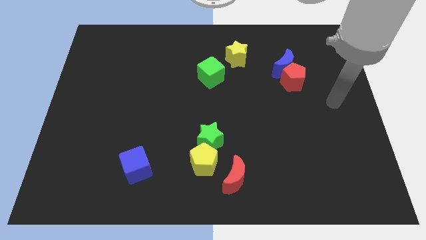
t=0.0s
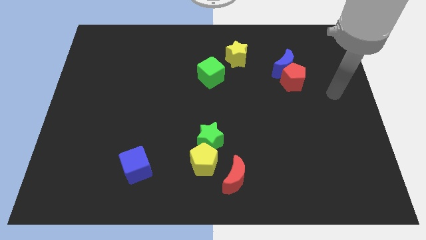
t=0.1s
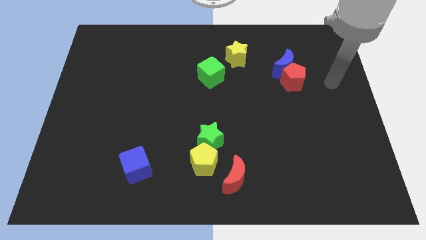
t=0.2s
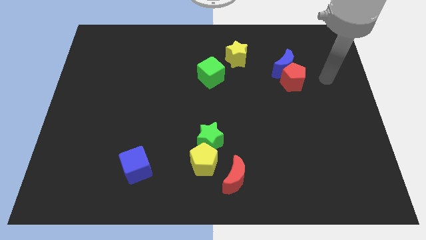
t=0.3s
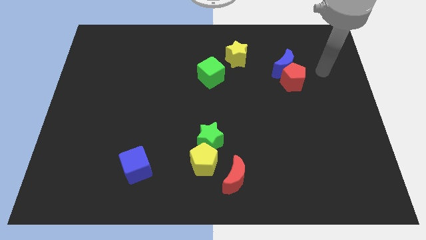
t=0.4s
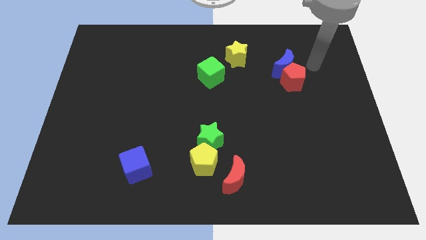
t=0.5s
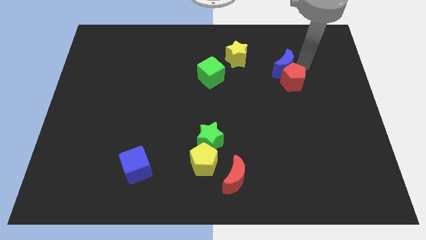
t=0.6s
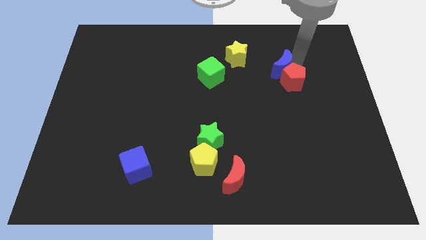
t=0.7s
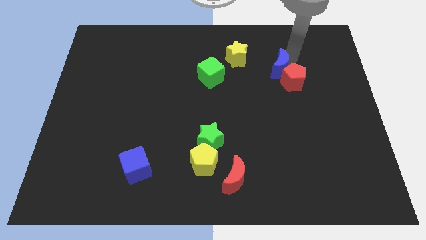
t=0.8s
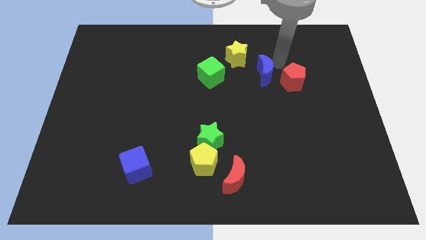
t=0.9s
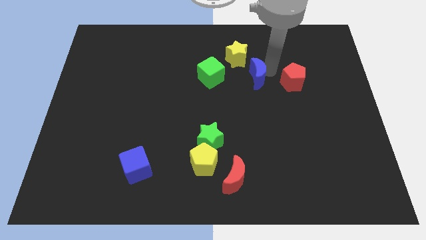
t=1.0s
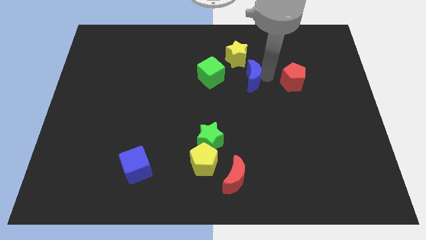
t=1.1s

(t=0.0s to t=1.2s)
pull the red pentagon apart from the blue moon

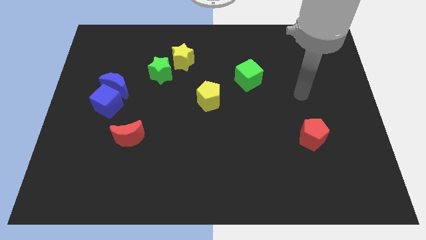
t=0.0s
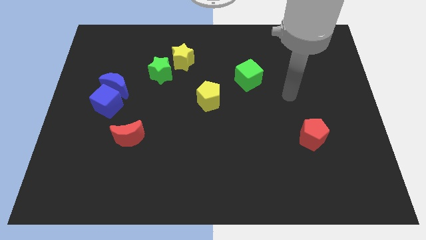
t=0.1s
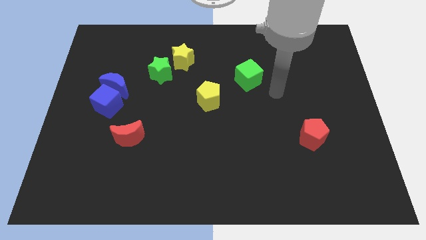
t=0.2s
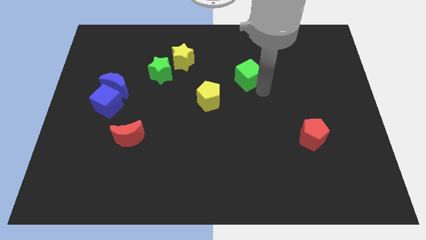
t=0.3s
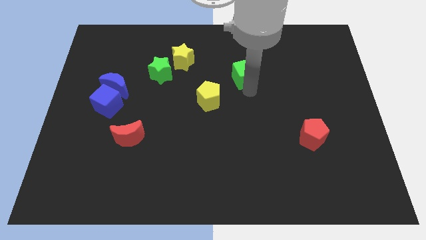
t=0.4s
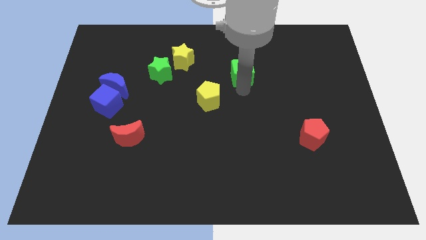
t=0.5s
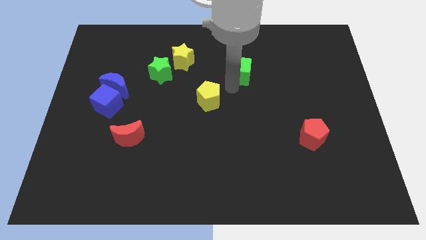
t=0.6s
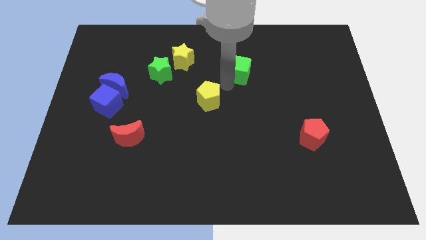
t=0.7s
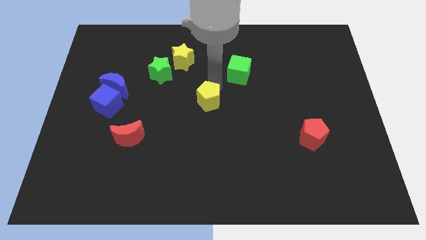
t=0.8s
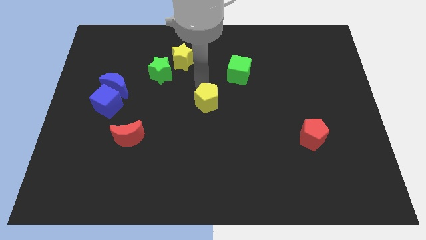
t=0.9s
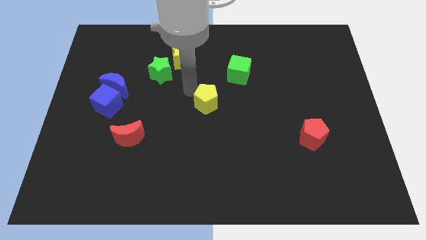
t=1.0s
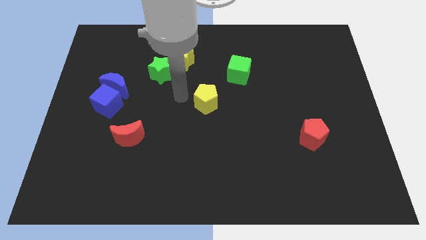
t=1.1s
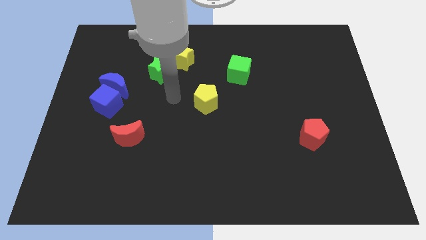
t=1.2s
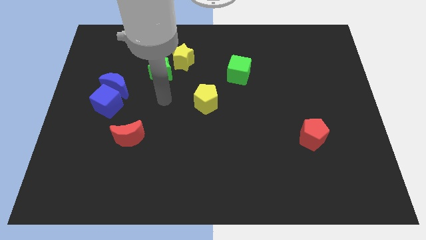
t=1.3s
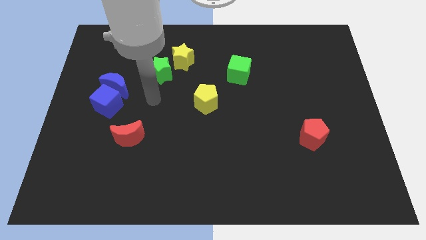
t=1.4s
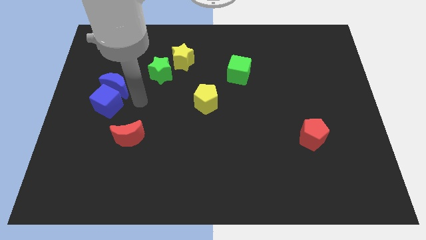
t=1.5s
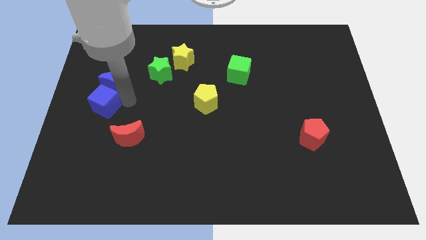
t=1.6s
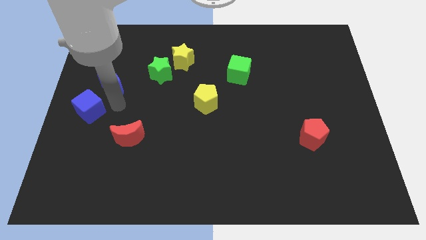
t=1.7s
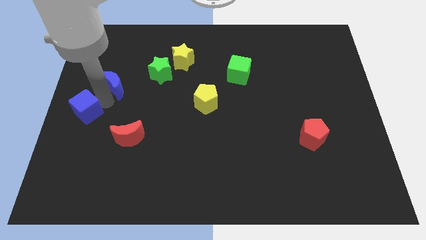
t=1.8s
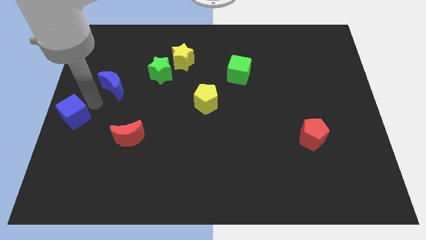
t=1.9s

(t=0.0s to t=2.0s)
separate the blue moon from the blue cube

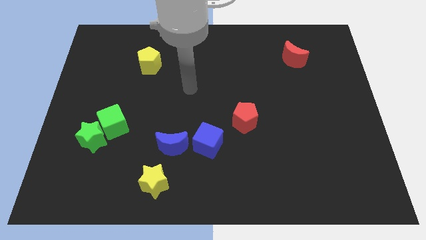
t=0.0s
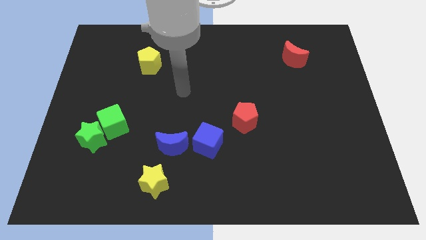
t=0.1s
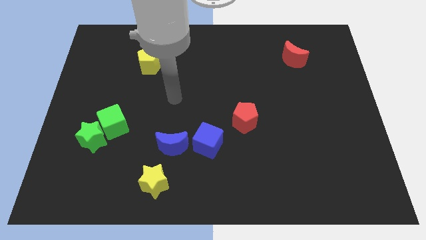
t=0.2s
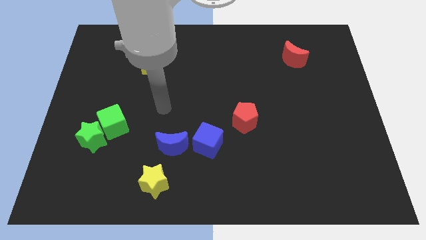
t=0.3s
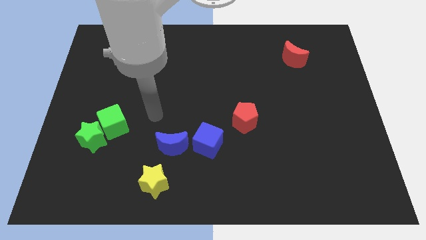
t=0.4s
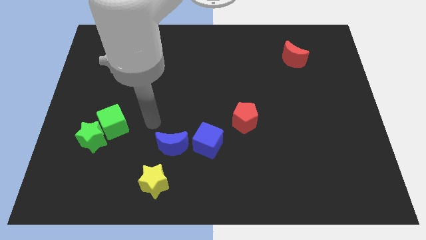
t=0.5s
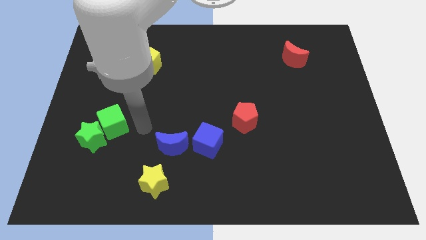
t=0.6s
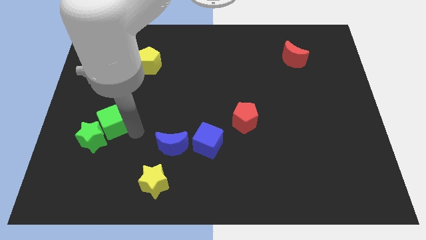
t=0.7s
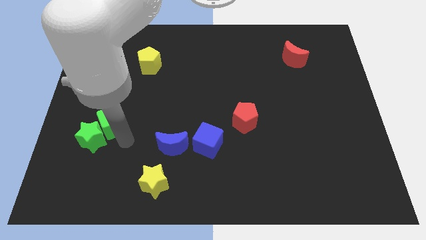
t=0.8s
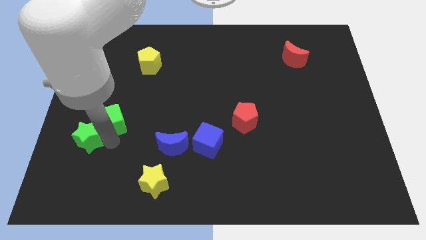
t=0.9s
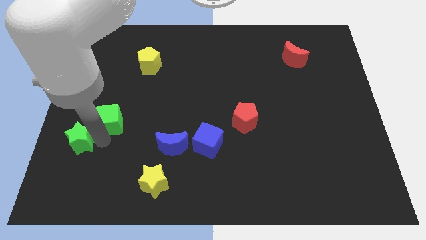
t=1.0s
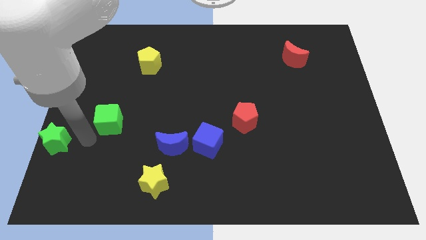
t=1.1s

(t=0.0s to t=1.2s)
pull the green cube apart from the green star

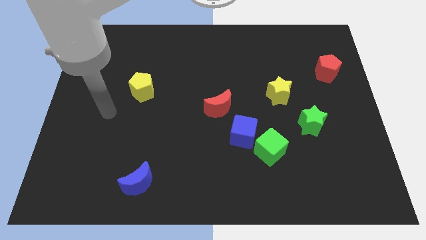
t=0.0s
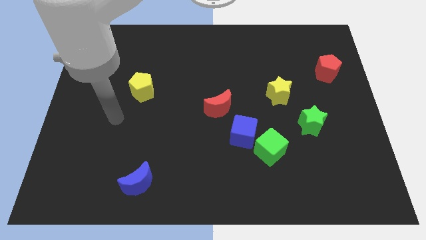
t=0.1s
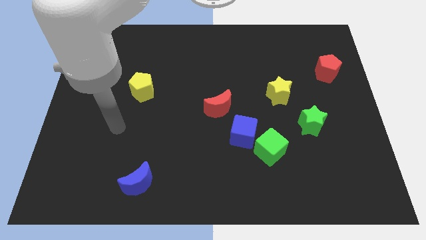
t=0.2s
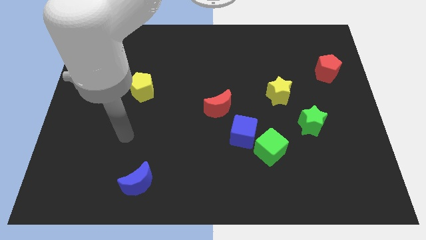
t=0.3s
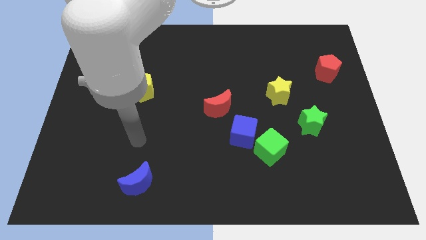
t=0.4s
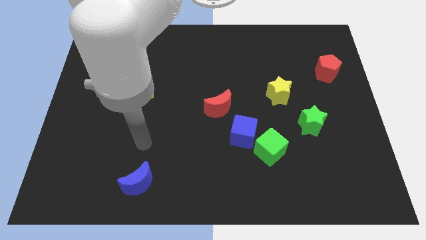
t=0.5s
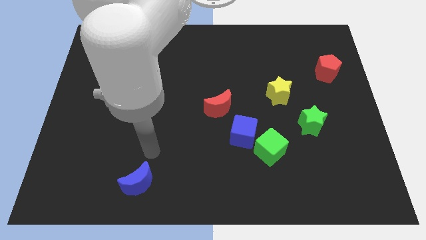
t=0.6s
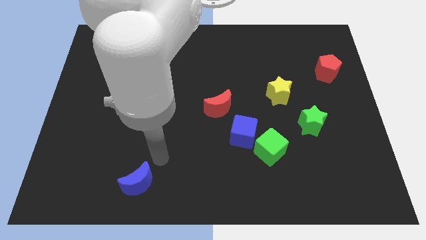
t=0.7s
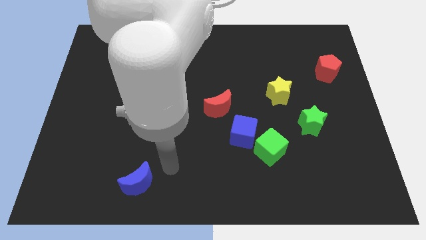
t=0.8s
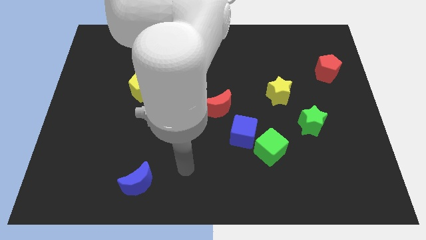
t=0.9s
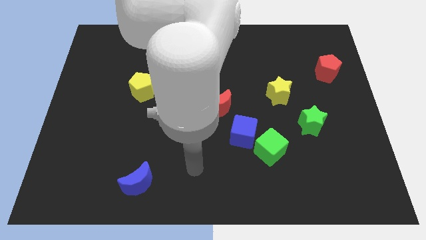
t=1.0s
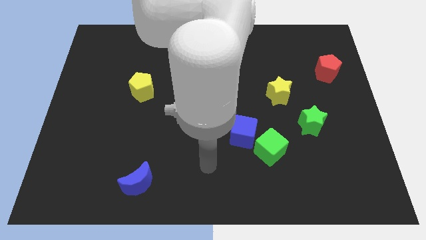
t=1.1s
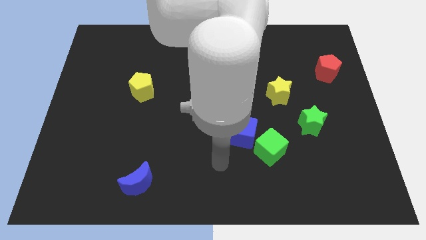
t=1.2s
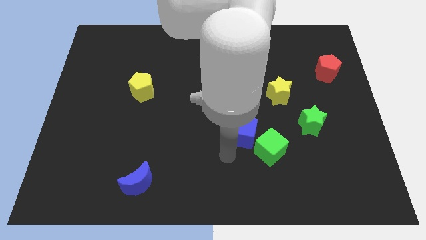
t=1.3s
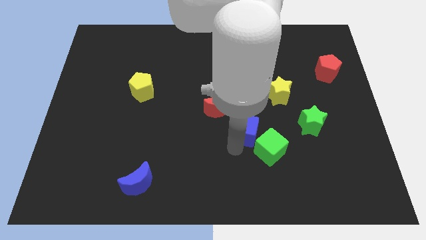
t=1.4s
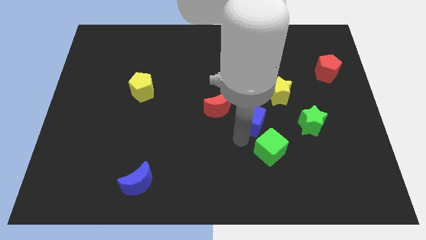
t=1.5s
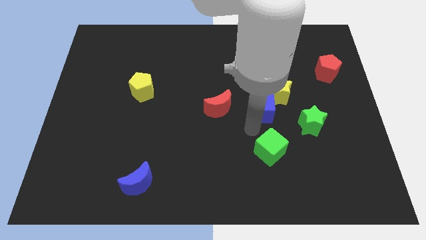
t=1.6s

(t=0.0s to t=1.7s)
separate the green cube from the blue cube

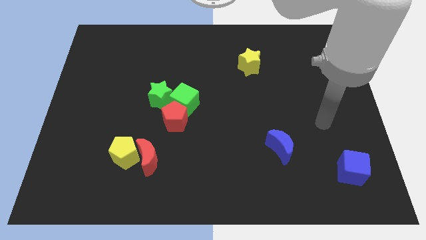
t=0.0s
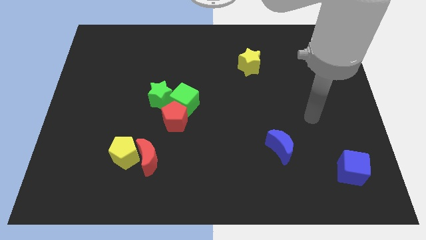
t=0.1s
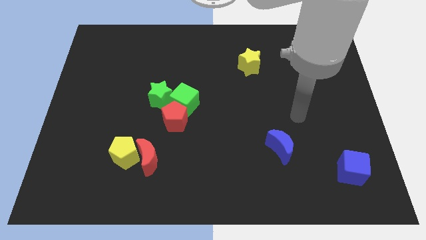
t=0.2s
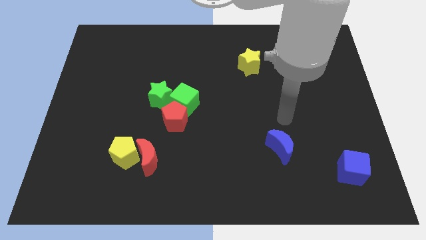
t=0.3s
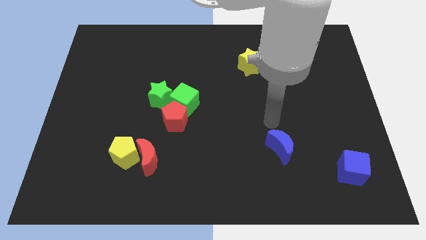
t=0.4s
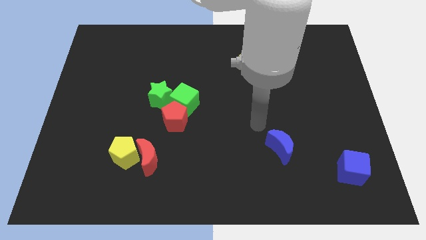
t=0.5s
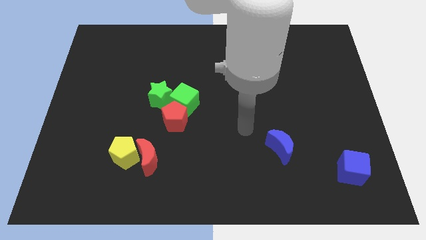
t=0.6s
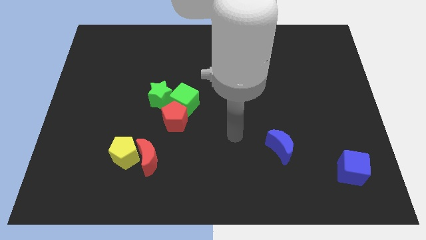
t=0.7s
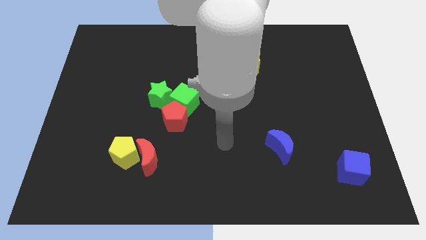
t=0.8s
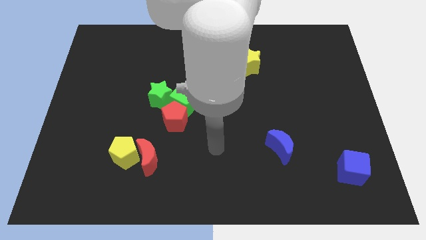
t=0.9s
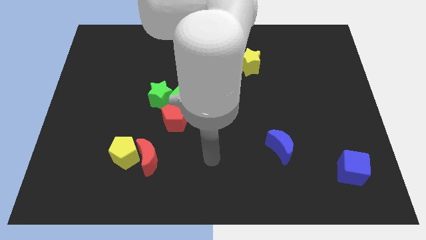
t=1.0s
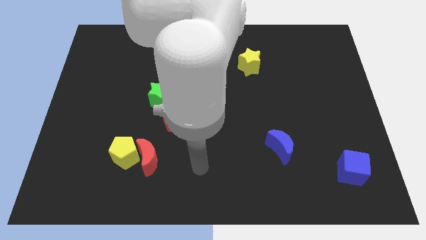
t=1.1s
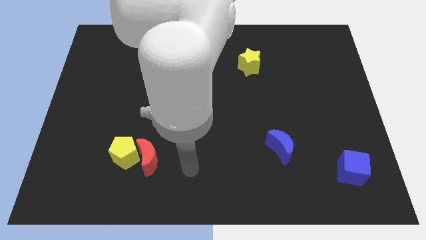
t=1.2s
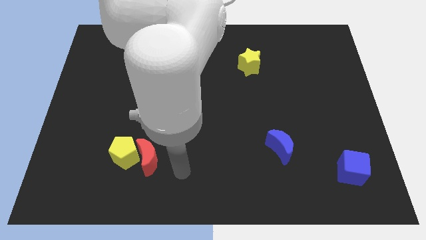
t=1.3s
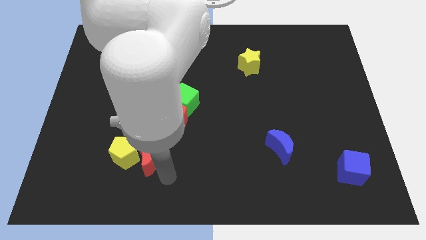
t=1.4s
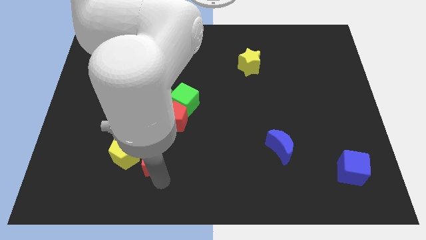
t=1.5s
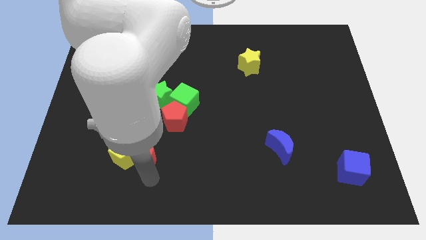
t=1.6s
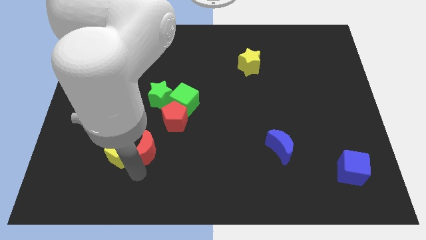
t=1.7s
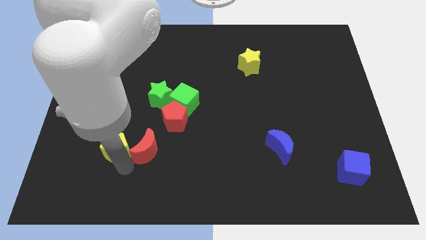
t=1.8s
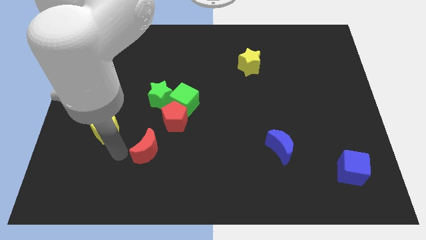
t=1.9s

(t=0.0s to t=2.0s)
move the red moon away from the yellow pentagon

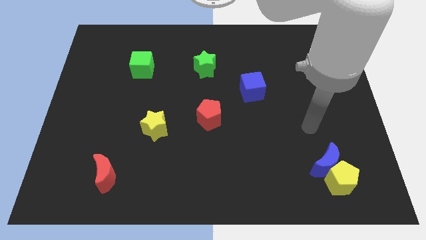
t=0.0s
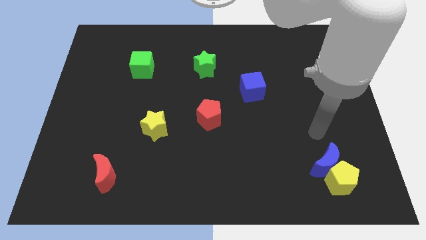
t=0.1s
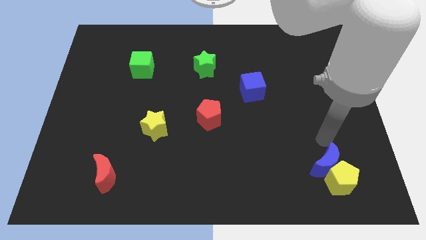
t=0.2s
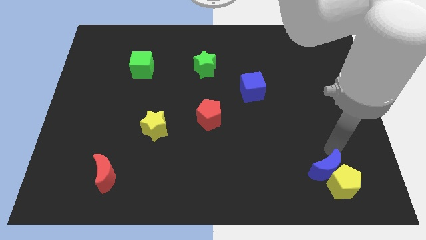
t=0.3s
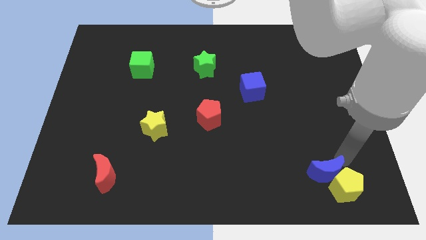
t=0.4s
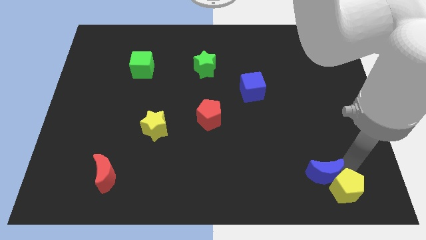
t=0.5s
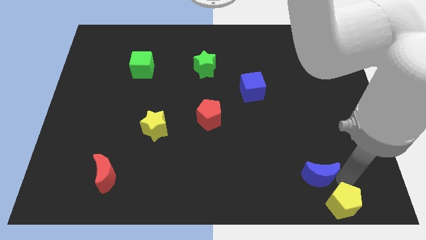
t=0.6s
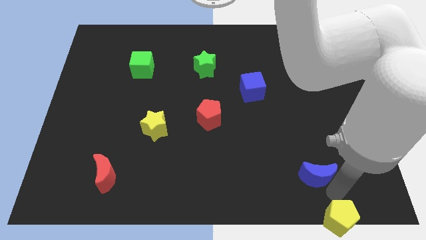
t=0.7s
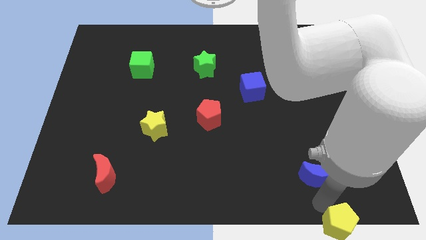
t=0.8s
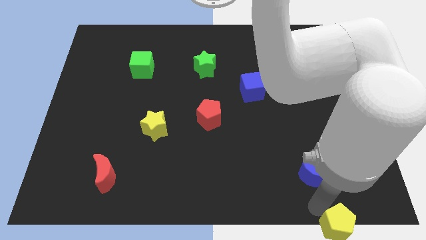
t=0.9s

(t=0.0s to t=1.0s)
pull the blue moon apart from the yellow pentagon

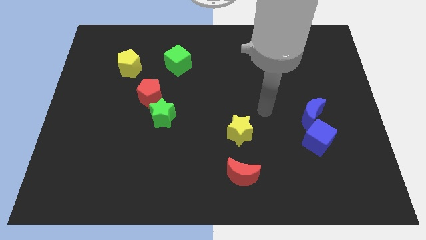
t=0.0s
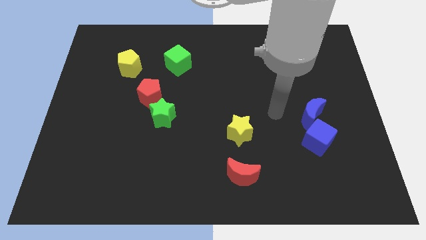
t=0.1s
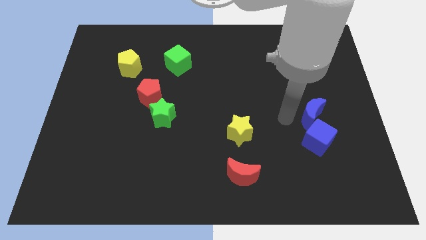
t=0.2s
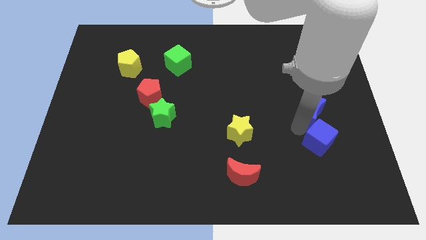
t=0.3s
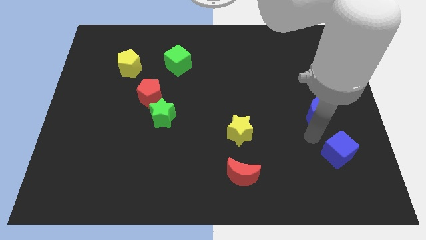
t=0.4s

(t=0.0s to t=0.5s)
pull the blue moon apart from the blue cube
